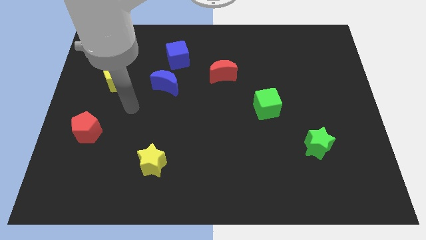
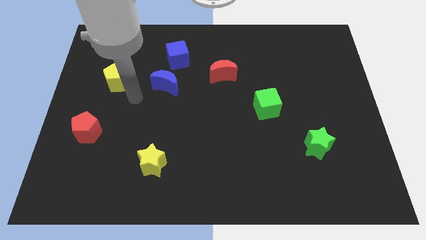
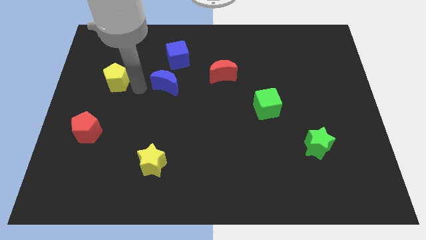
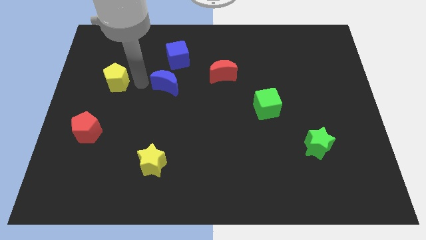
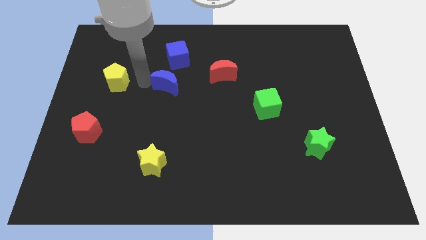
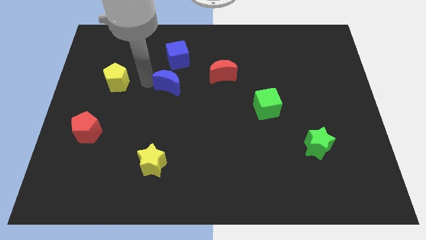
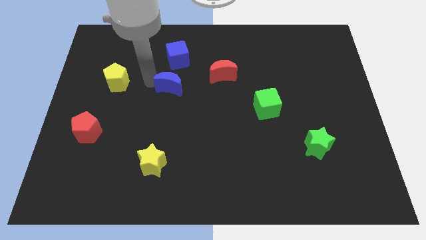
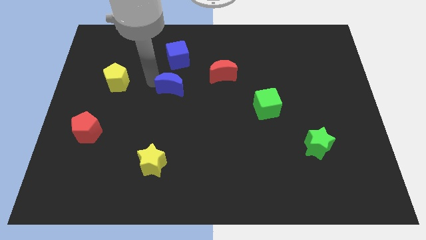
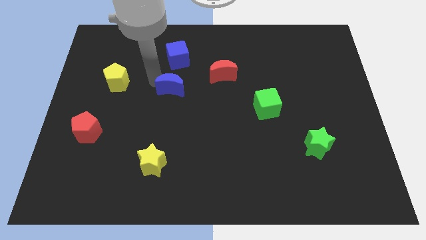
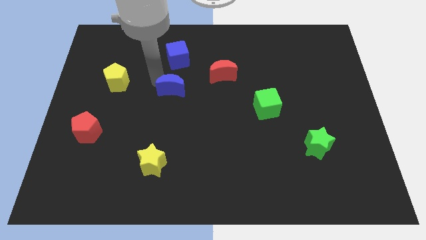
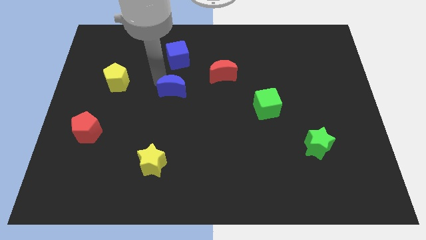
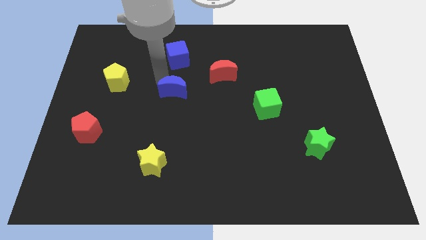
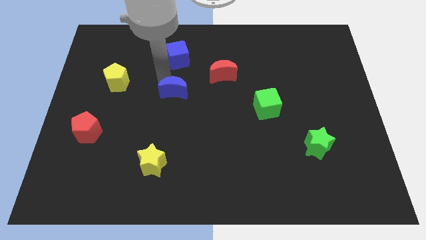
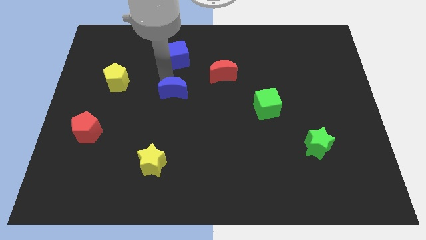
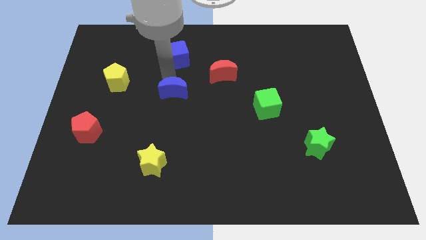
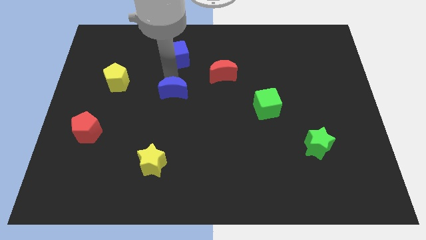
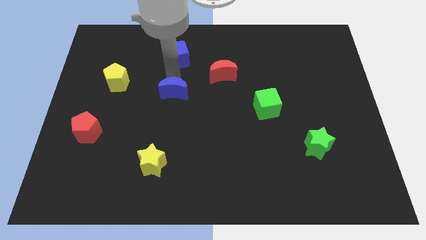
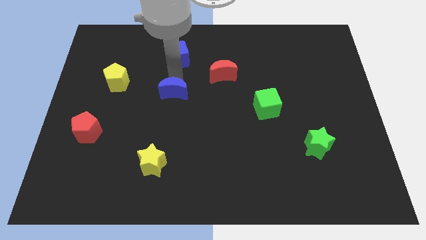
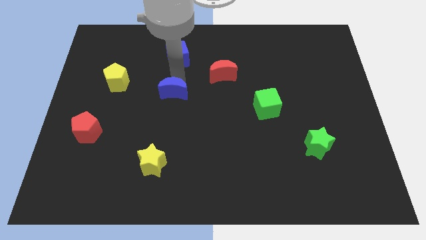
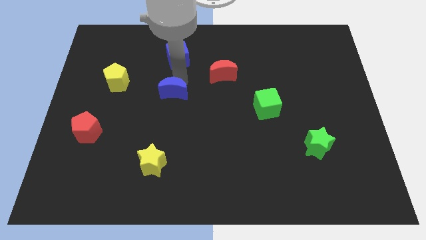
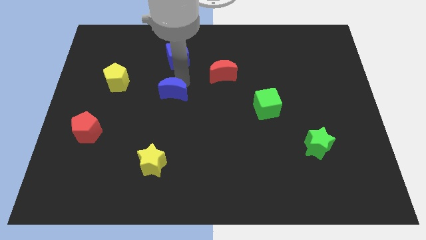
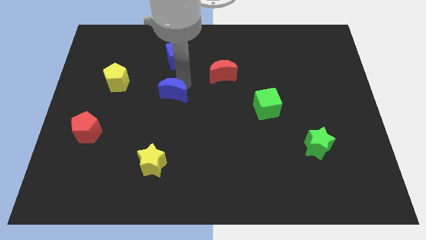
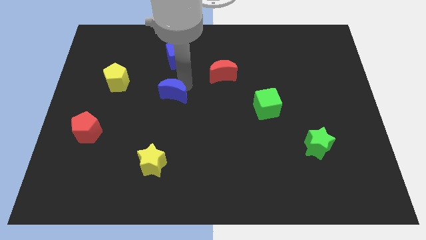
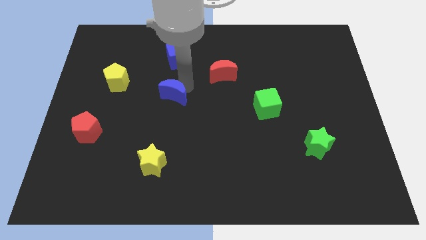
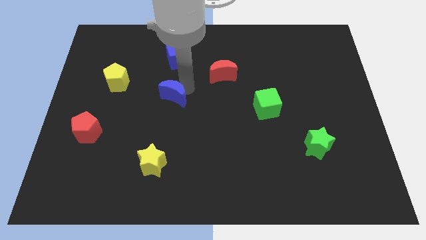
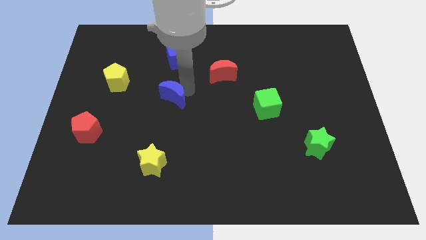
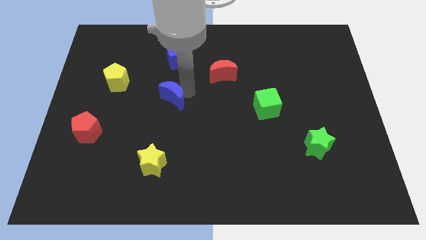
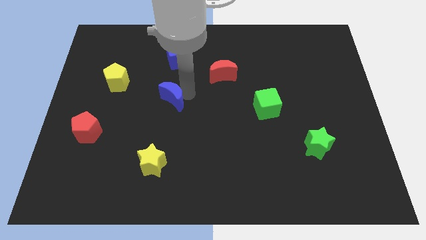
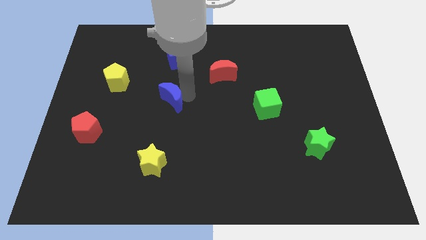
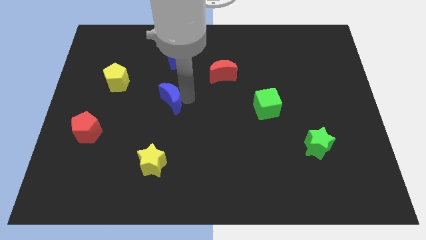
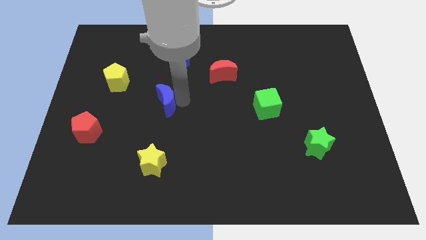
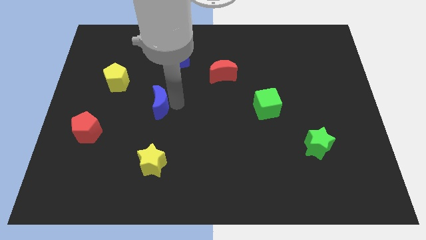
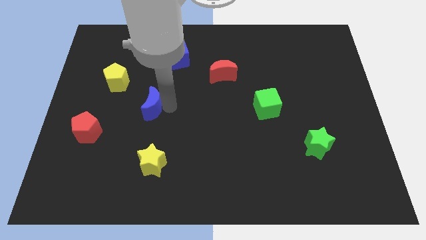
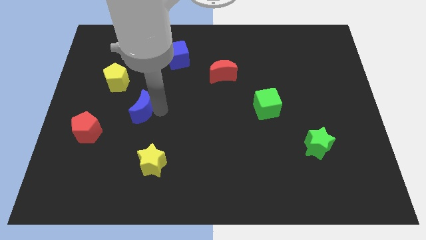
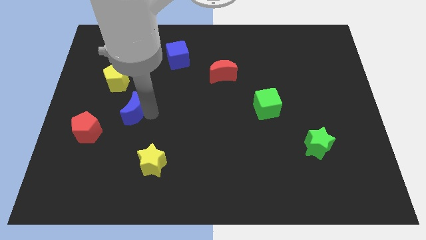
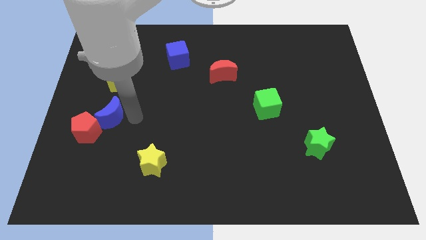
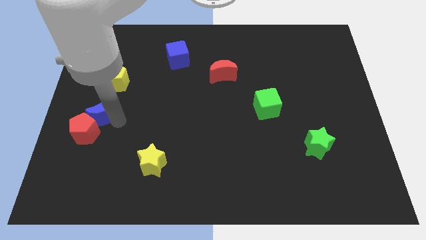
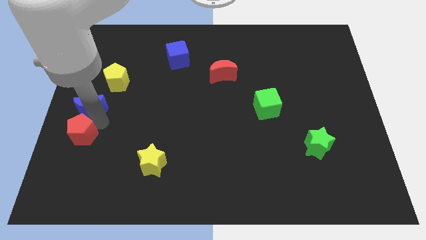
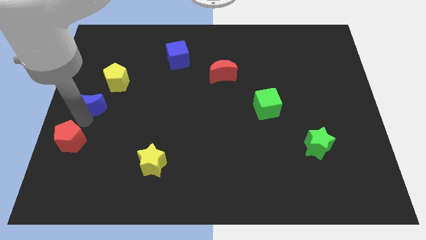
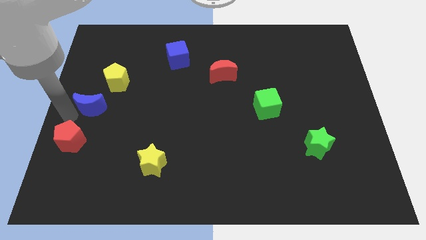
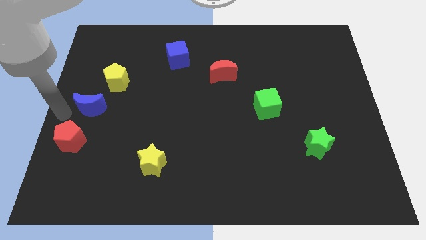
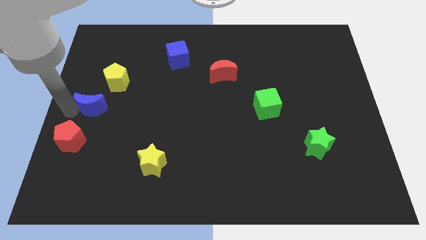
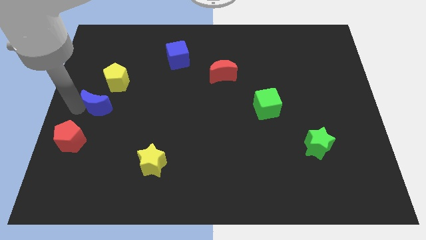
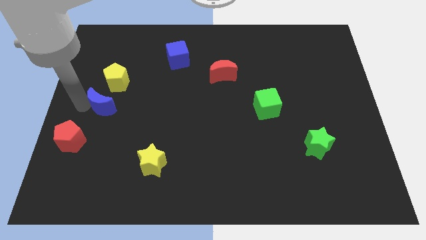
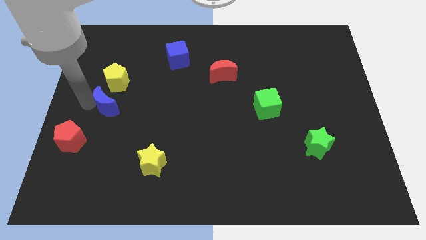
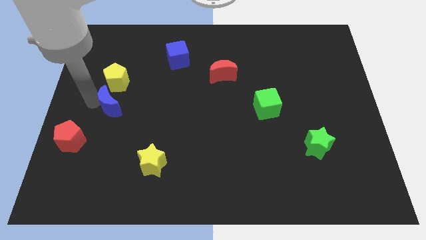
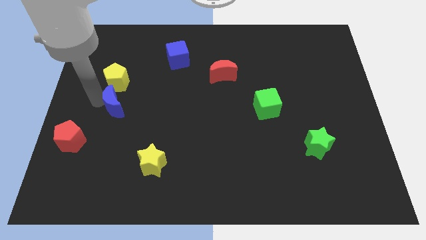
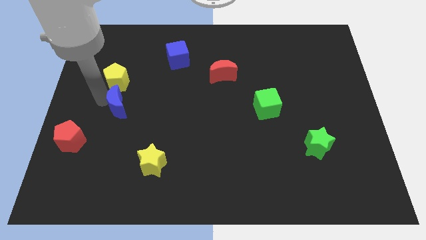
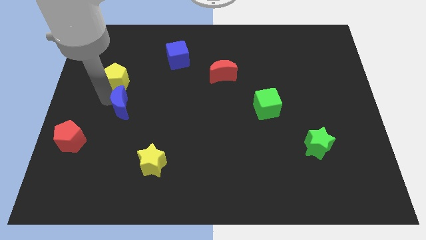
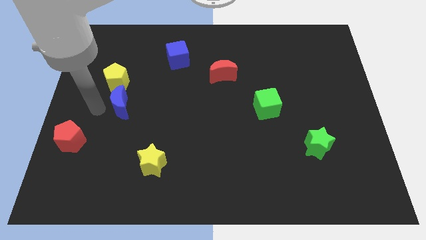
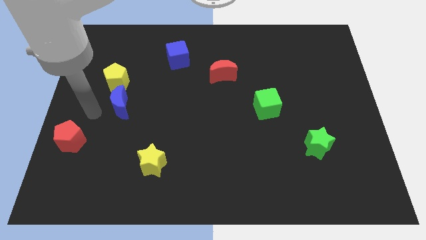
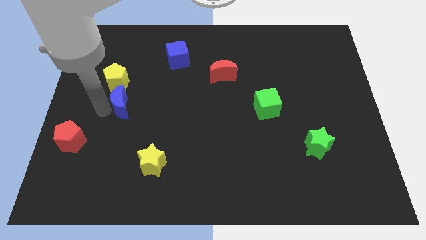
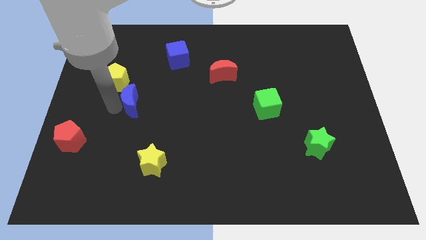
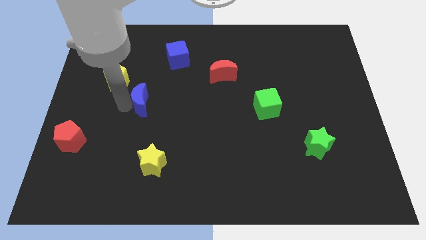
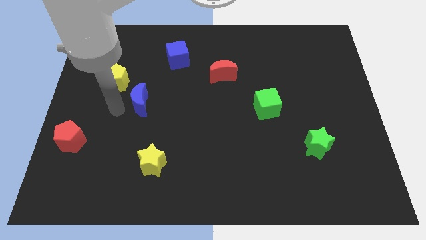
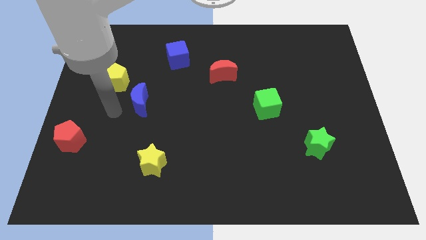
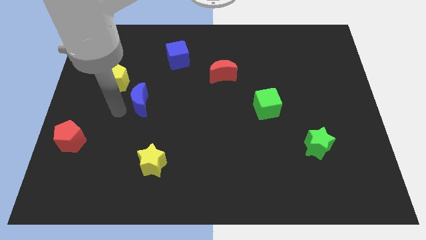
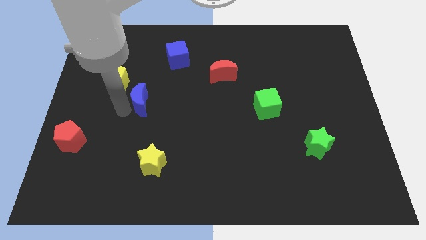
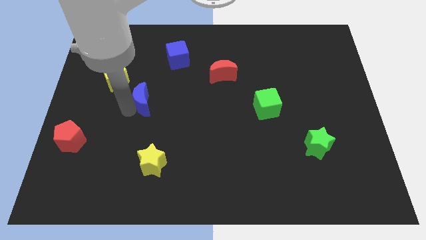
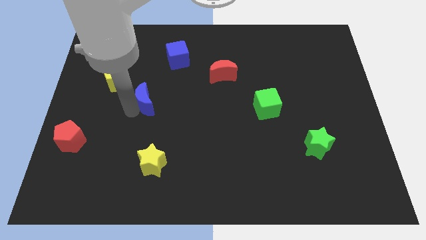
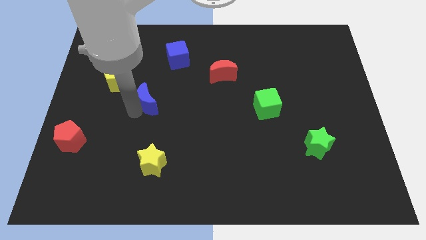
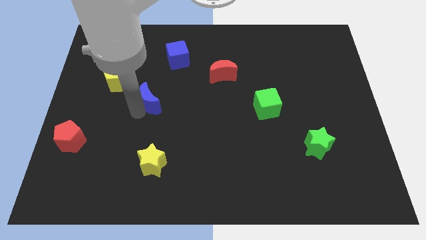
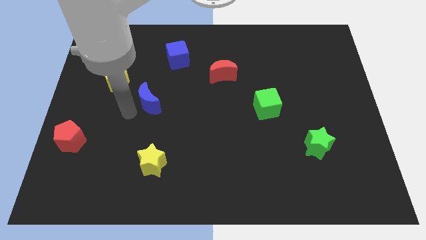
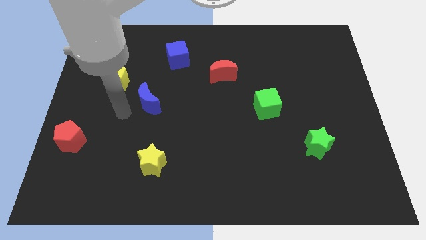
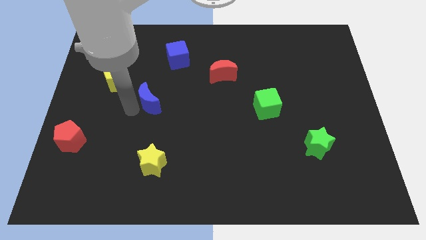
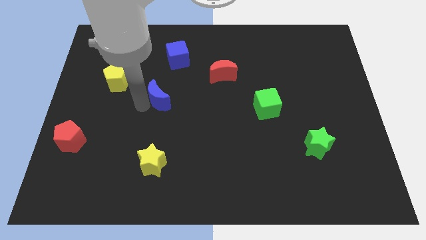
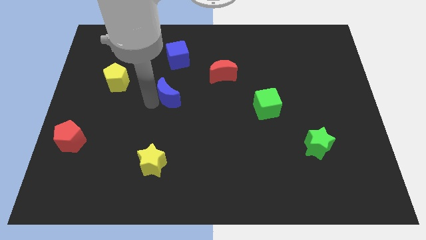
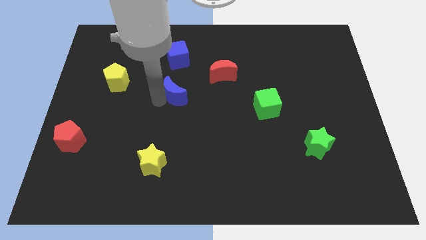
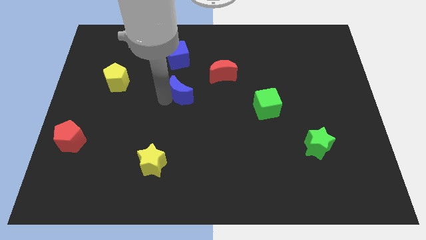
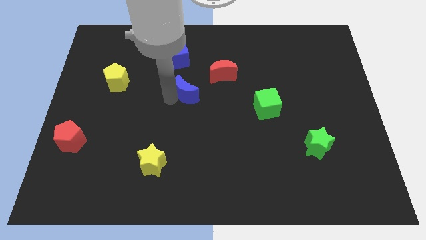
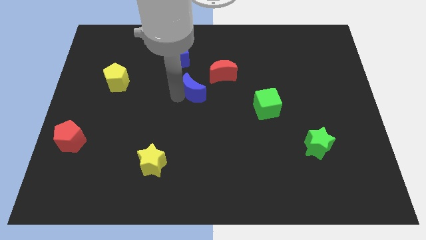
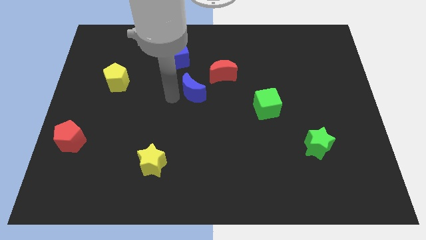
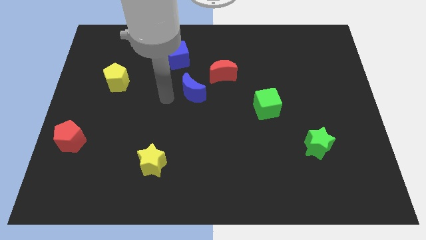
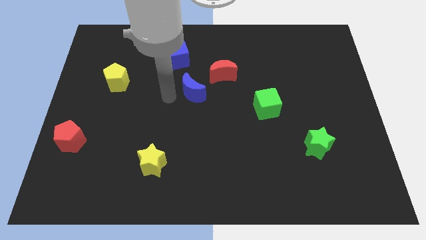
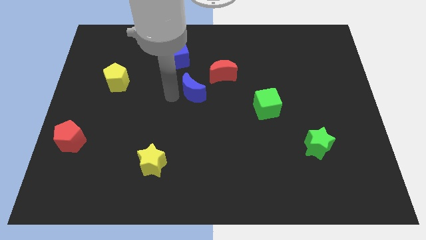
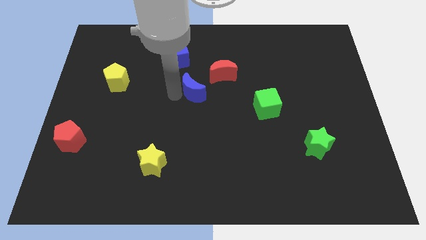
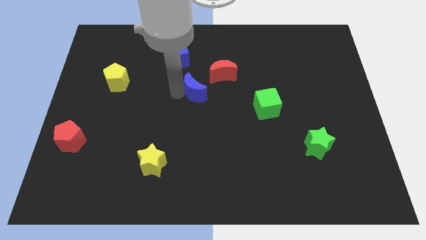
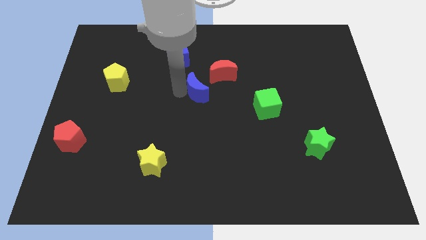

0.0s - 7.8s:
move the blue moon to the right a little bit

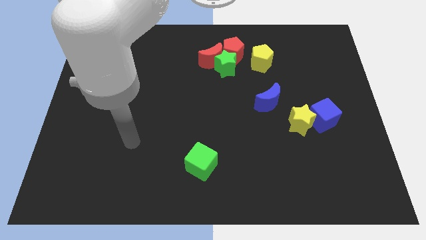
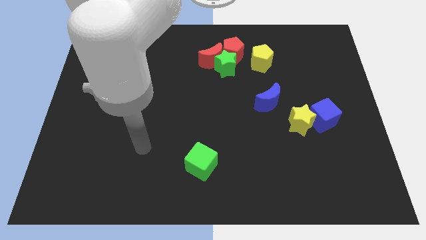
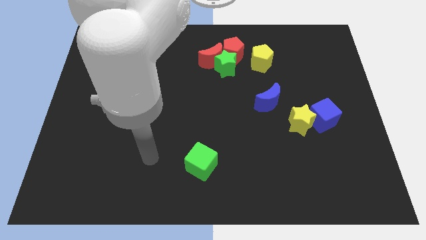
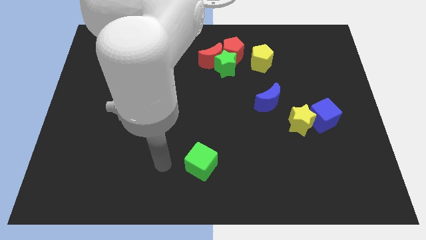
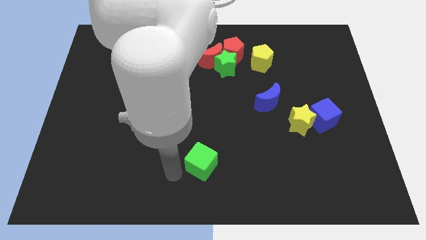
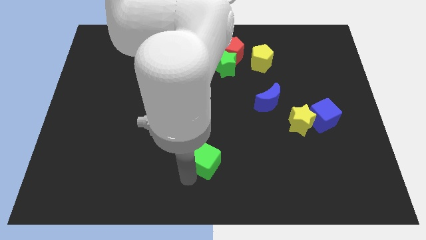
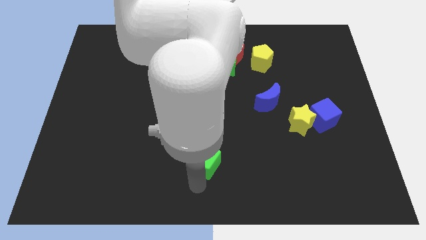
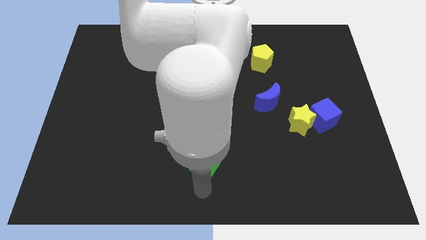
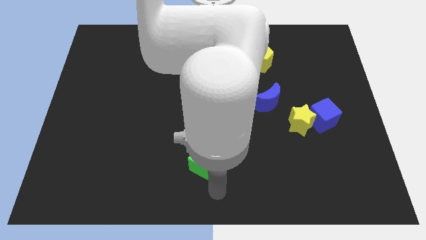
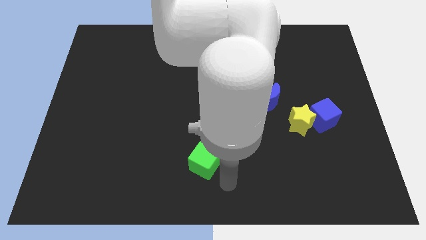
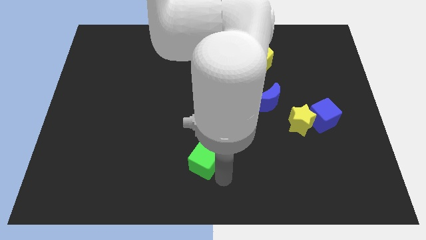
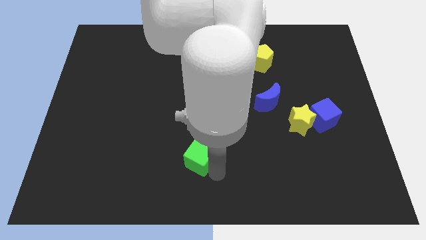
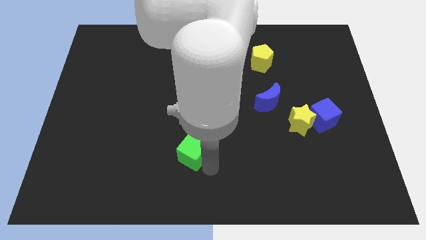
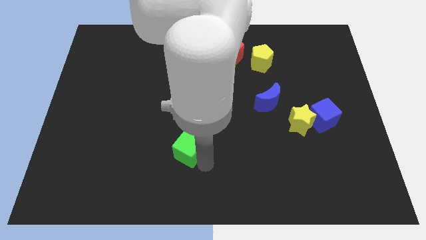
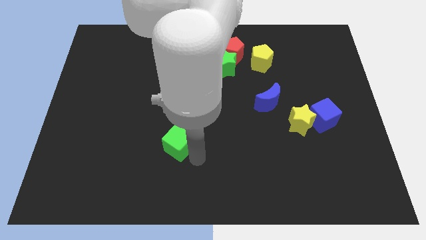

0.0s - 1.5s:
slightly slide the green cube upwards and to the left
